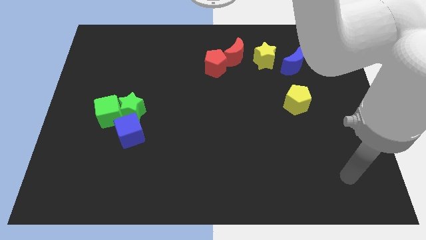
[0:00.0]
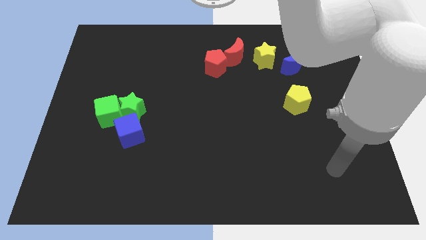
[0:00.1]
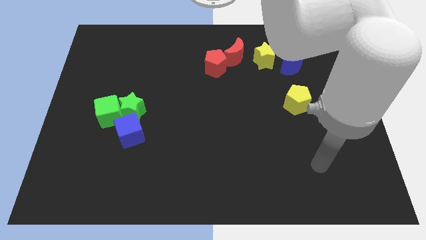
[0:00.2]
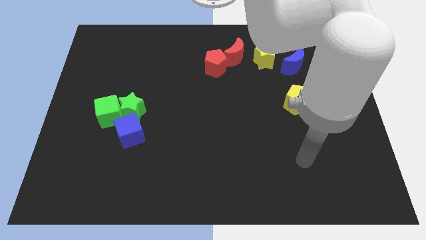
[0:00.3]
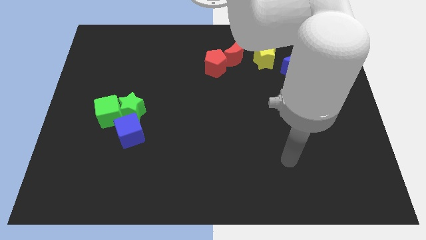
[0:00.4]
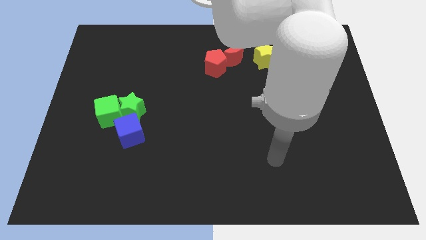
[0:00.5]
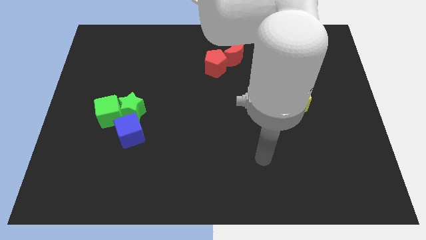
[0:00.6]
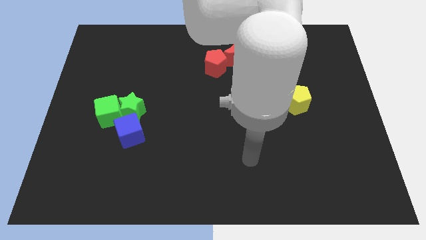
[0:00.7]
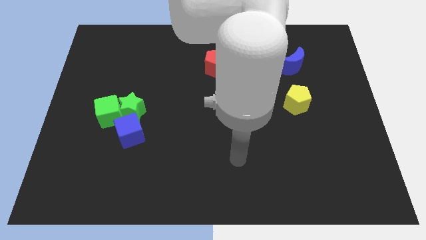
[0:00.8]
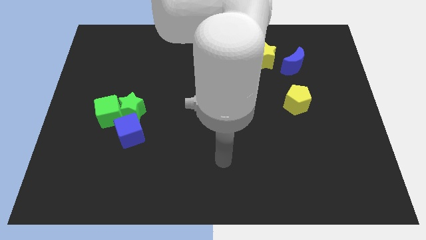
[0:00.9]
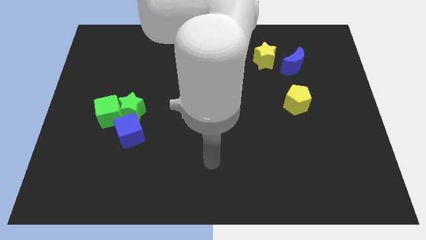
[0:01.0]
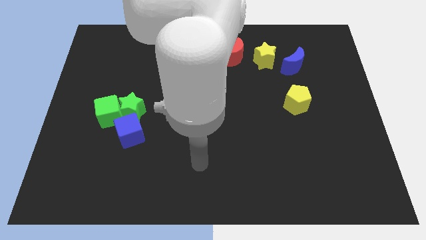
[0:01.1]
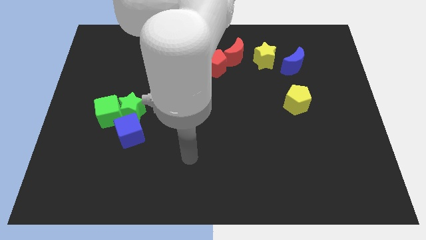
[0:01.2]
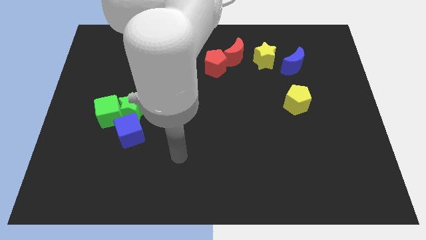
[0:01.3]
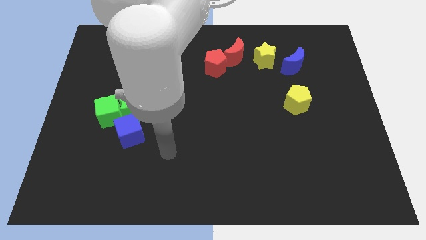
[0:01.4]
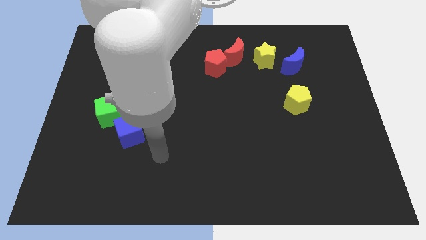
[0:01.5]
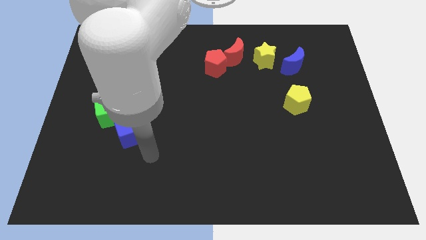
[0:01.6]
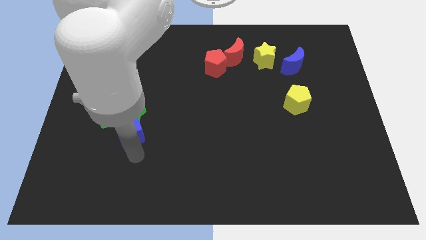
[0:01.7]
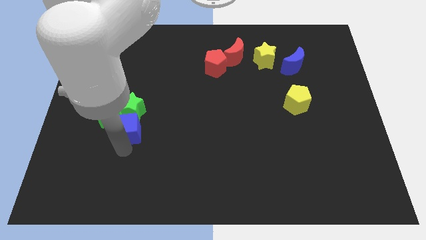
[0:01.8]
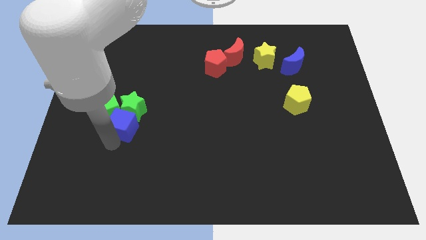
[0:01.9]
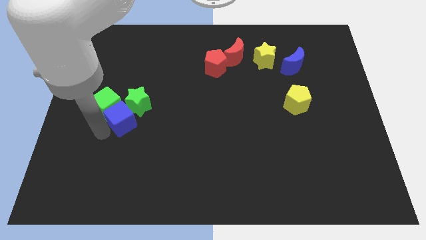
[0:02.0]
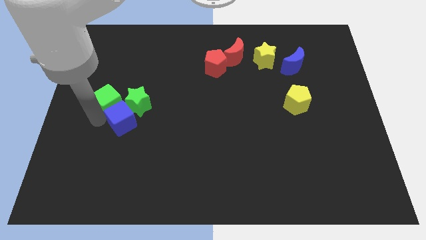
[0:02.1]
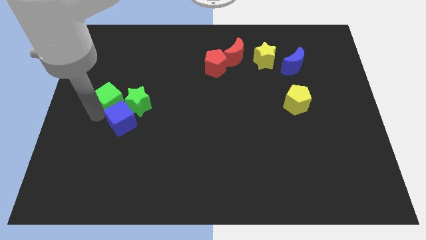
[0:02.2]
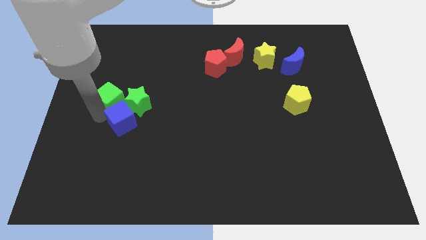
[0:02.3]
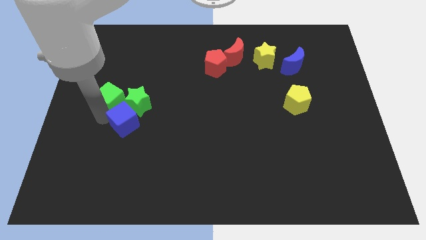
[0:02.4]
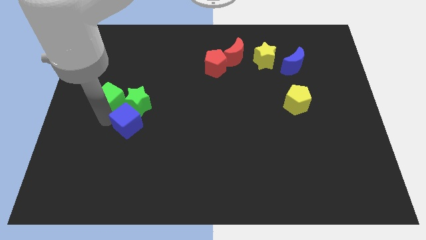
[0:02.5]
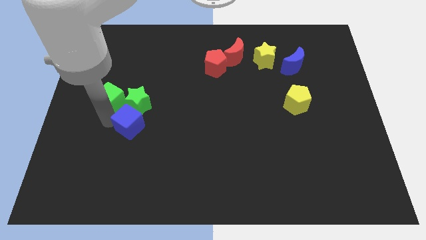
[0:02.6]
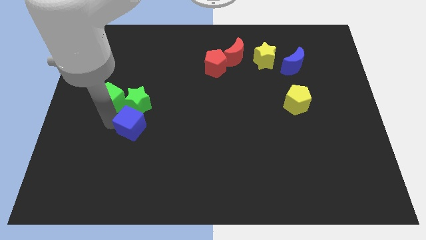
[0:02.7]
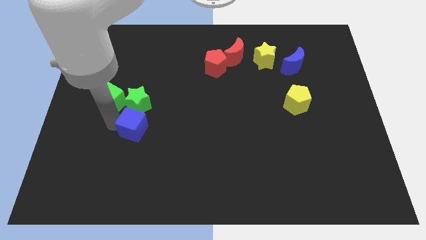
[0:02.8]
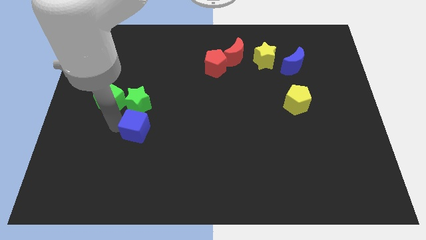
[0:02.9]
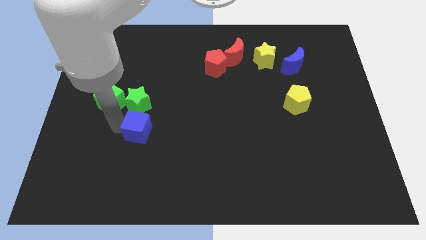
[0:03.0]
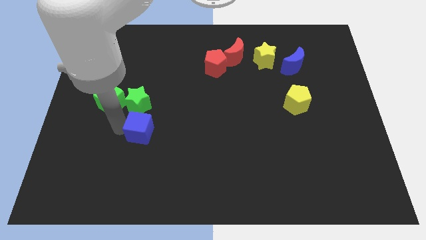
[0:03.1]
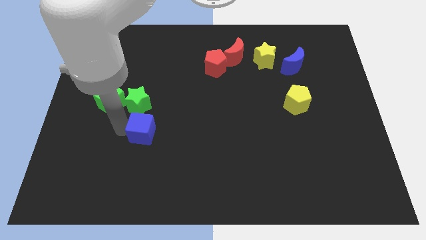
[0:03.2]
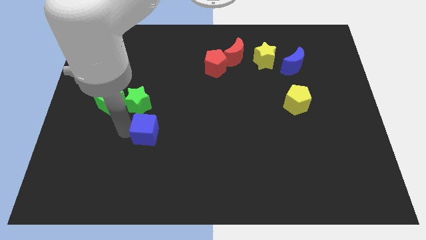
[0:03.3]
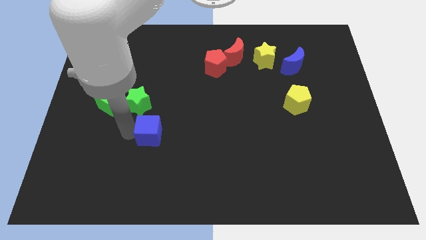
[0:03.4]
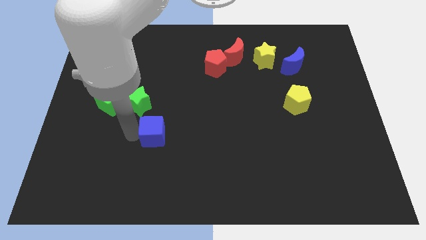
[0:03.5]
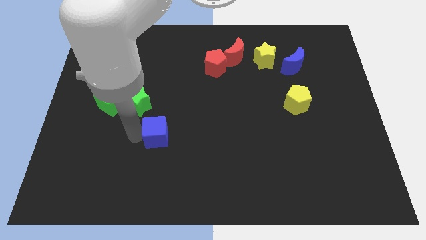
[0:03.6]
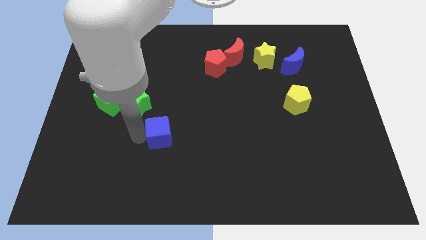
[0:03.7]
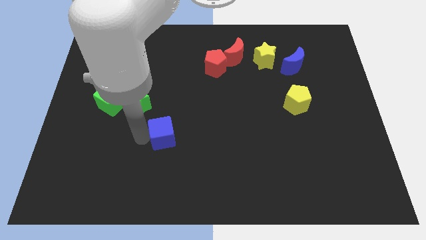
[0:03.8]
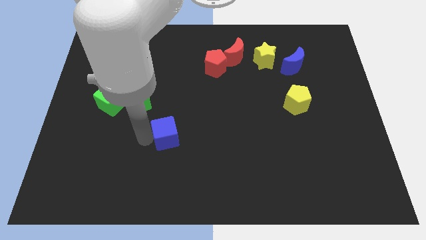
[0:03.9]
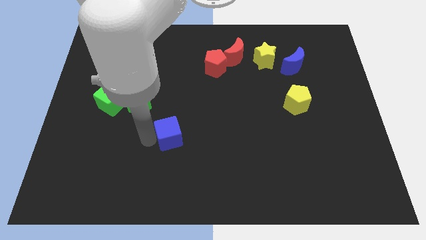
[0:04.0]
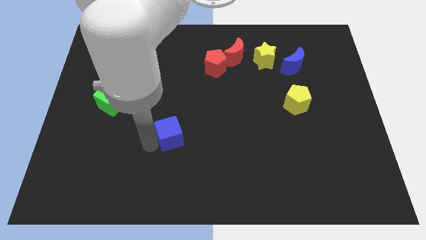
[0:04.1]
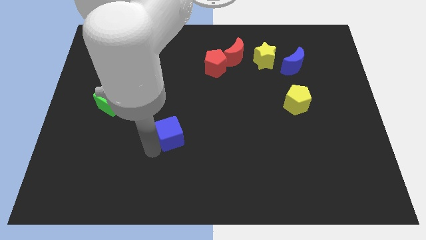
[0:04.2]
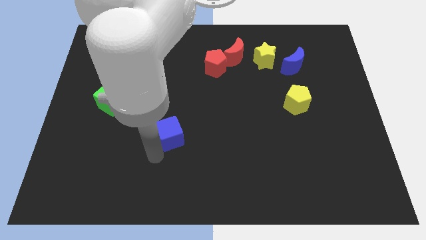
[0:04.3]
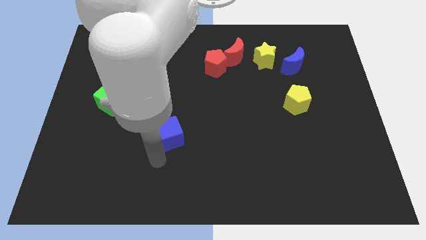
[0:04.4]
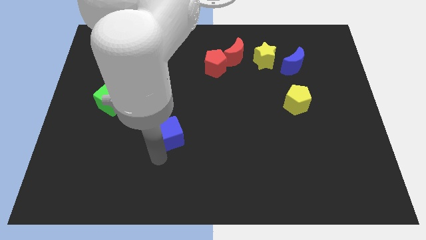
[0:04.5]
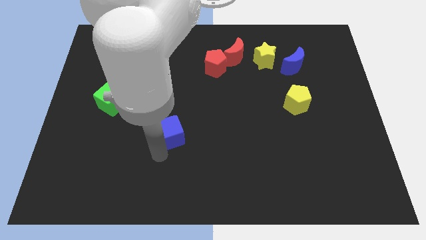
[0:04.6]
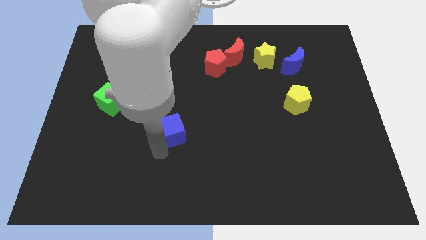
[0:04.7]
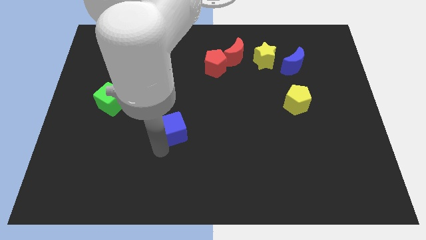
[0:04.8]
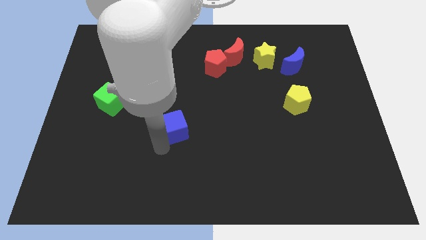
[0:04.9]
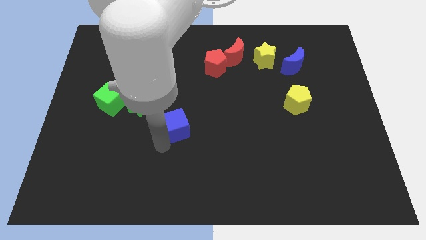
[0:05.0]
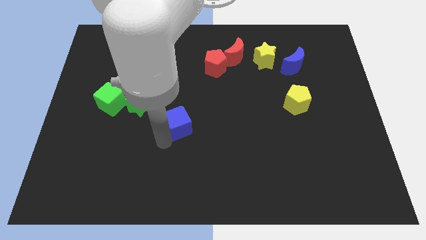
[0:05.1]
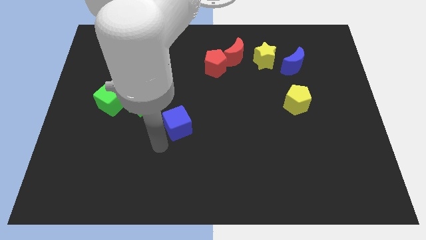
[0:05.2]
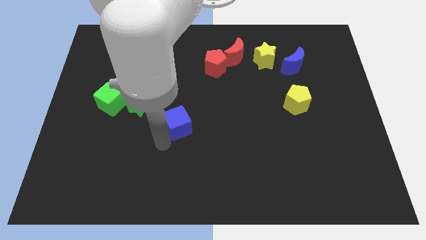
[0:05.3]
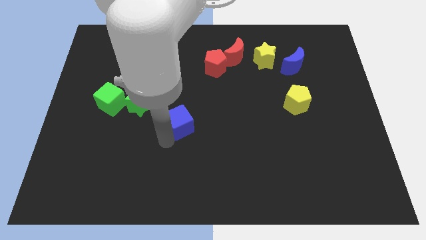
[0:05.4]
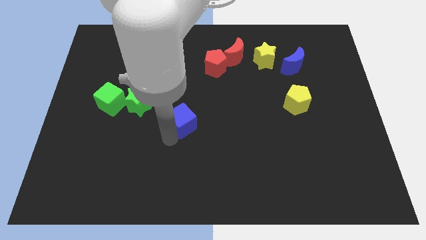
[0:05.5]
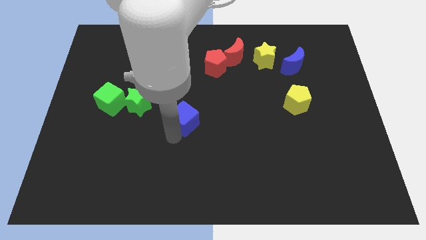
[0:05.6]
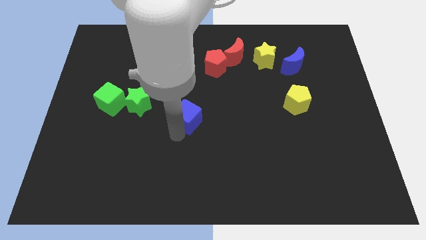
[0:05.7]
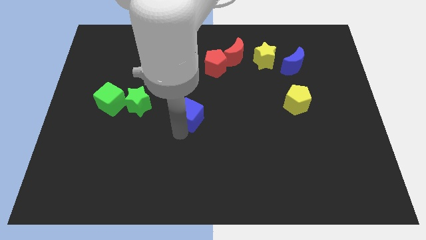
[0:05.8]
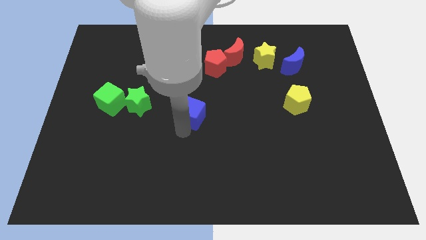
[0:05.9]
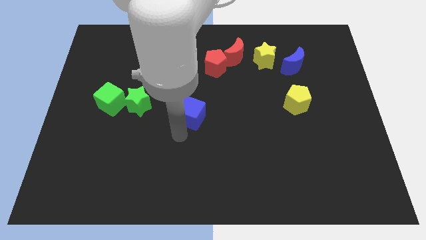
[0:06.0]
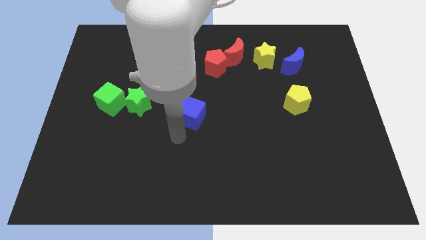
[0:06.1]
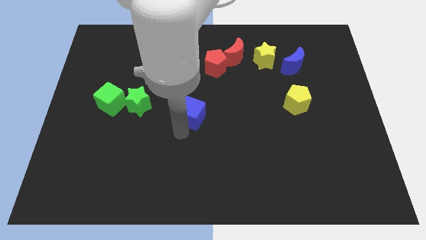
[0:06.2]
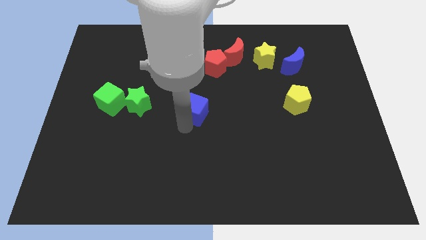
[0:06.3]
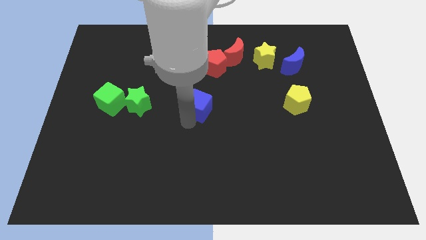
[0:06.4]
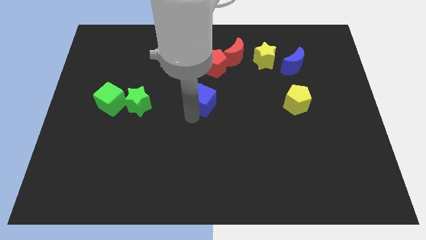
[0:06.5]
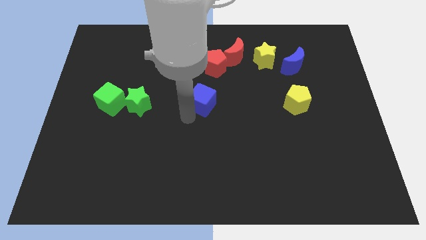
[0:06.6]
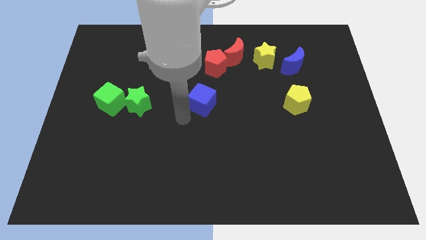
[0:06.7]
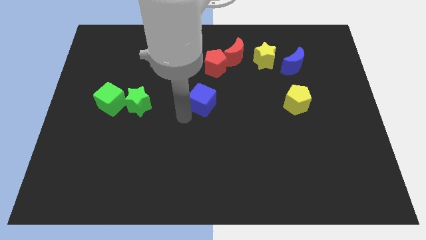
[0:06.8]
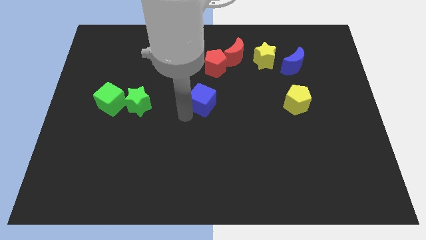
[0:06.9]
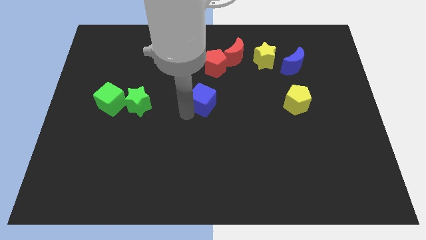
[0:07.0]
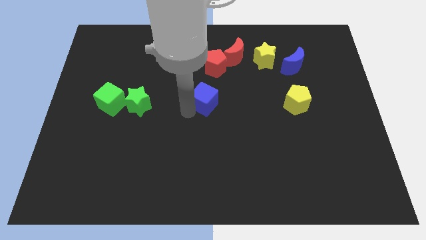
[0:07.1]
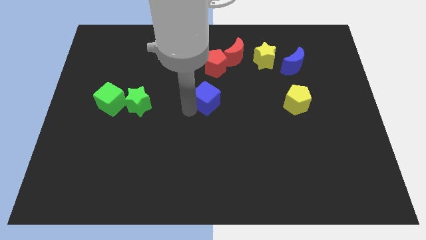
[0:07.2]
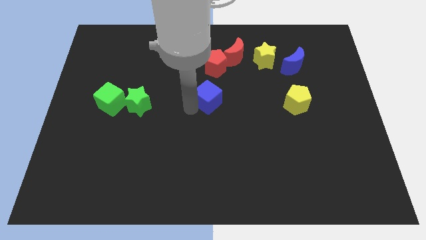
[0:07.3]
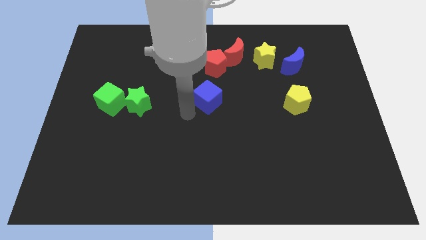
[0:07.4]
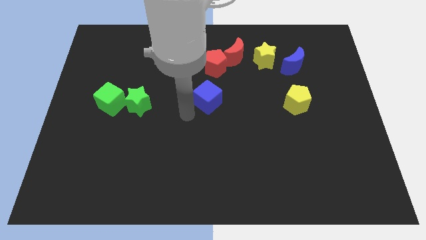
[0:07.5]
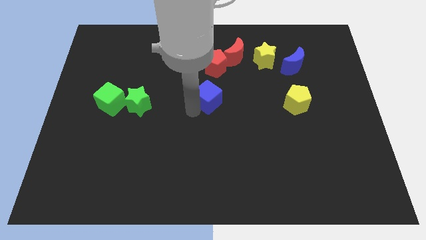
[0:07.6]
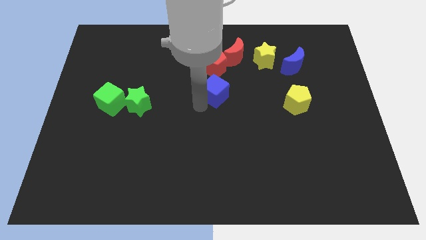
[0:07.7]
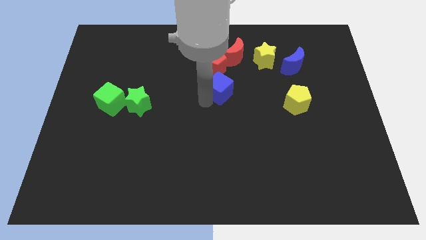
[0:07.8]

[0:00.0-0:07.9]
put the blue cube diagonally down and to the right of the red pentagon
